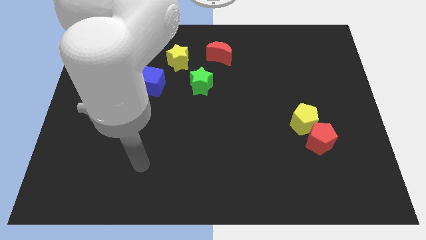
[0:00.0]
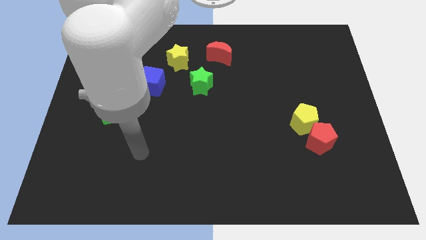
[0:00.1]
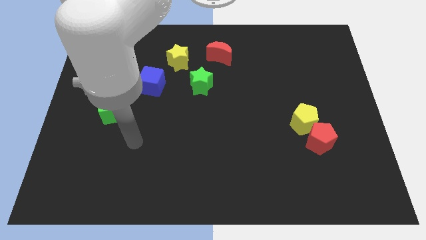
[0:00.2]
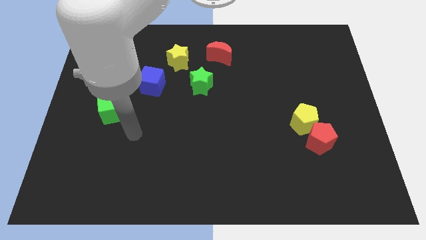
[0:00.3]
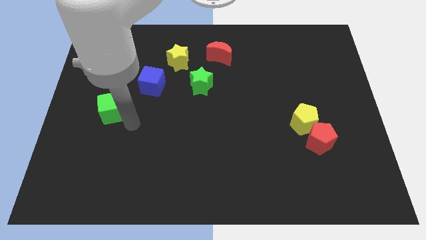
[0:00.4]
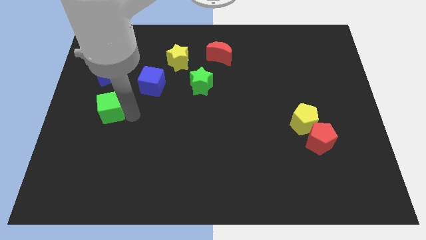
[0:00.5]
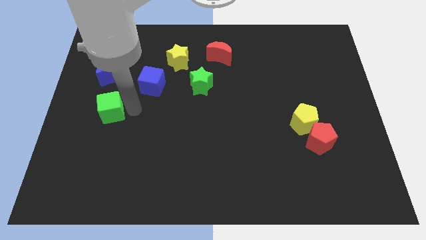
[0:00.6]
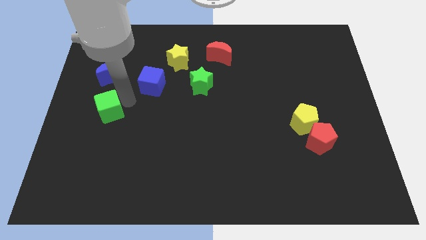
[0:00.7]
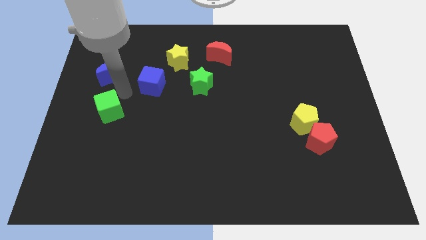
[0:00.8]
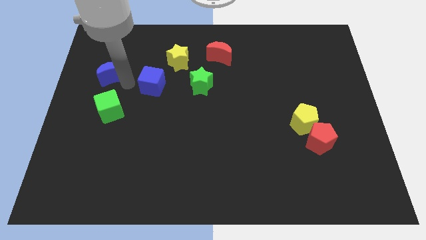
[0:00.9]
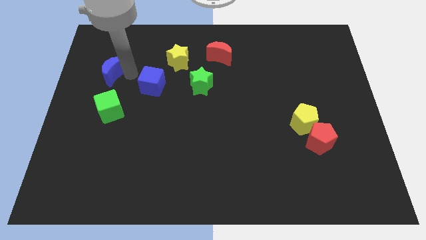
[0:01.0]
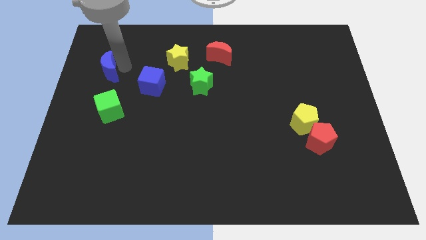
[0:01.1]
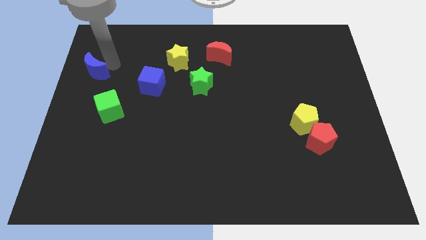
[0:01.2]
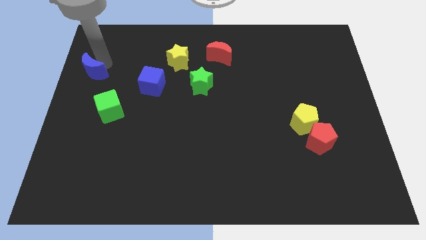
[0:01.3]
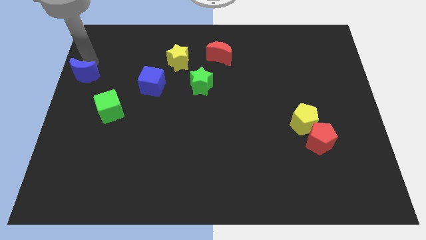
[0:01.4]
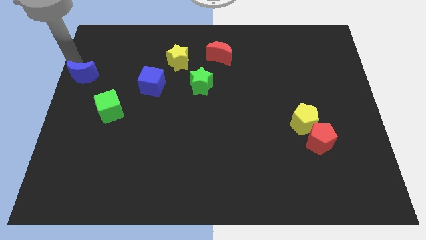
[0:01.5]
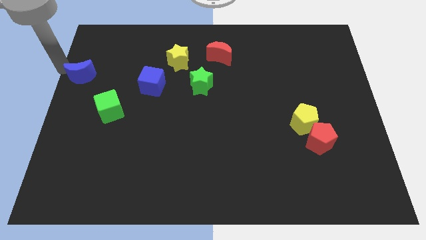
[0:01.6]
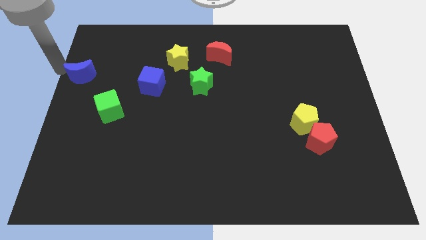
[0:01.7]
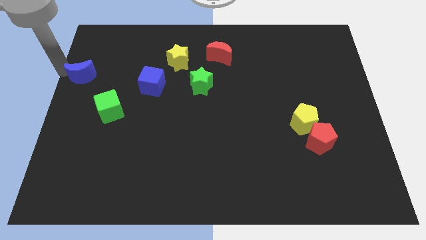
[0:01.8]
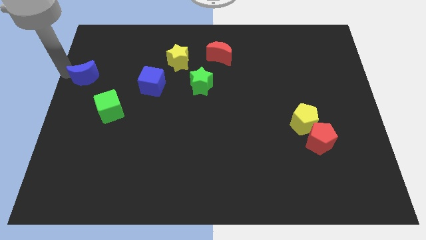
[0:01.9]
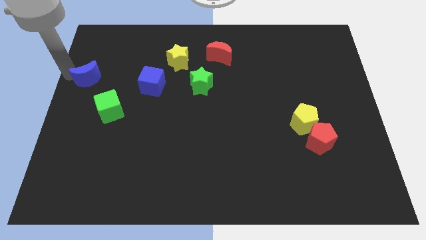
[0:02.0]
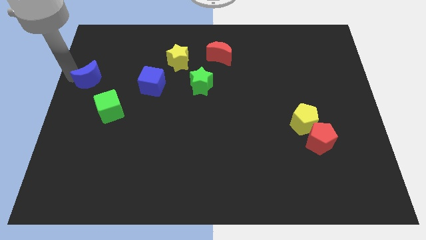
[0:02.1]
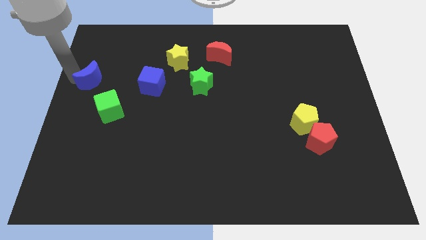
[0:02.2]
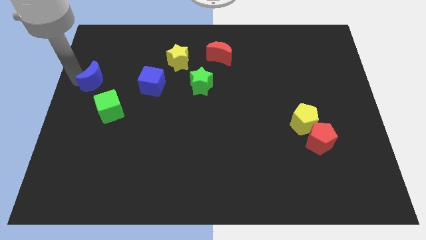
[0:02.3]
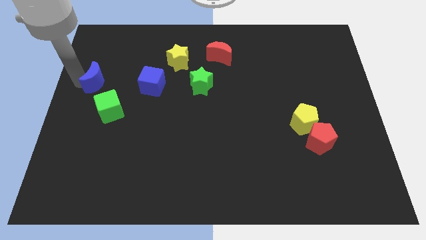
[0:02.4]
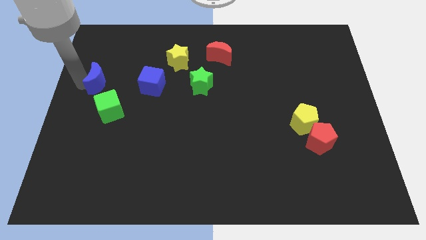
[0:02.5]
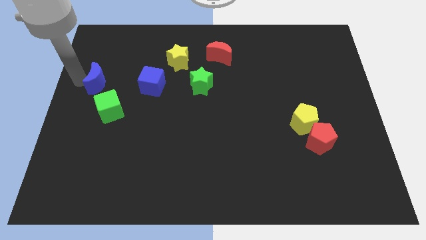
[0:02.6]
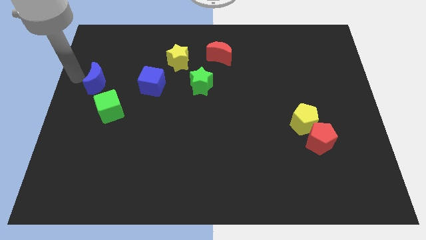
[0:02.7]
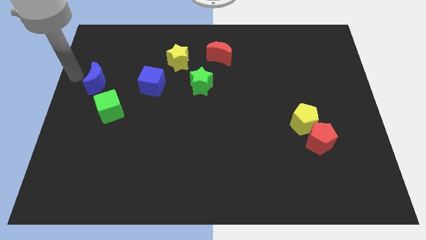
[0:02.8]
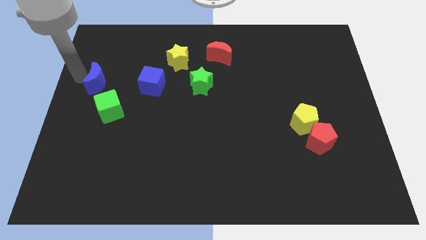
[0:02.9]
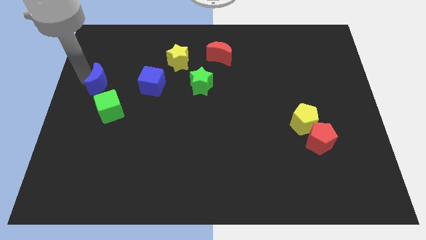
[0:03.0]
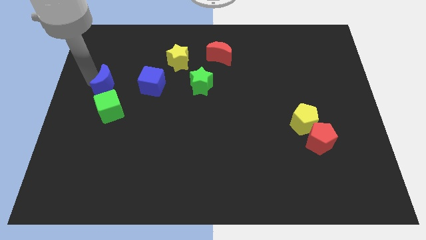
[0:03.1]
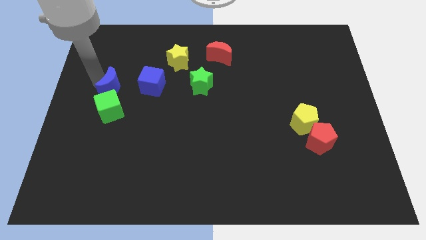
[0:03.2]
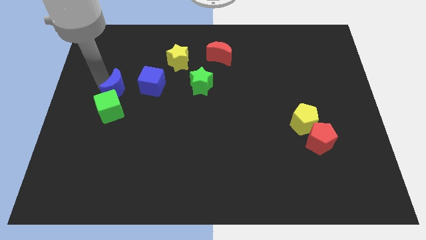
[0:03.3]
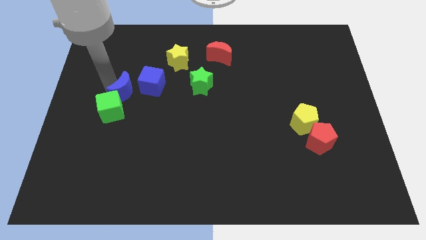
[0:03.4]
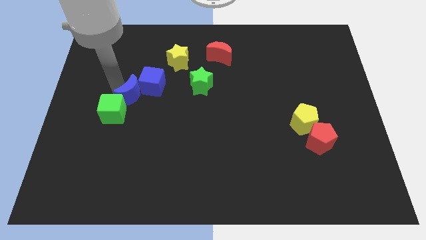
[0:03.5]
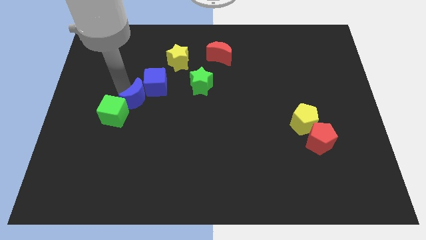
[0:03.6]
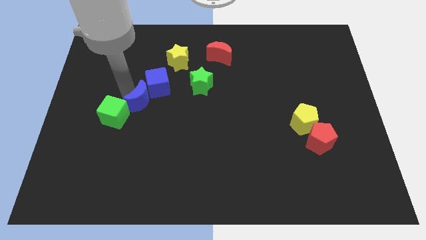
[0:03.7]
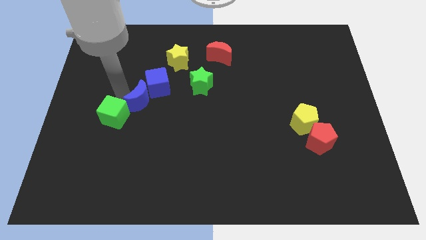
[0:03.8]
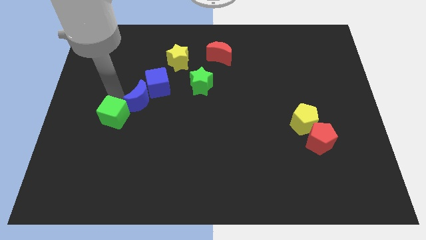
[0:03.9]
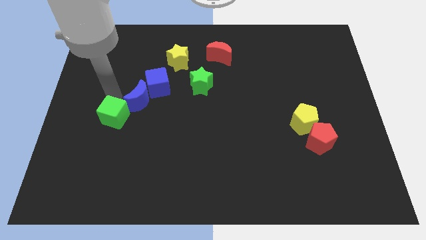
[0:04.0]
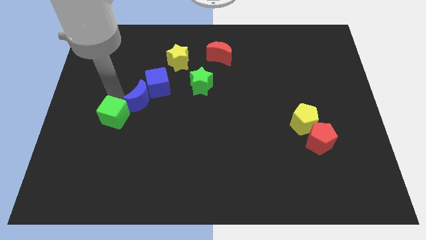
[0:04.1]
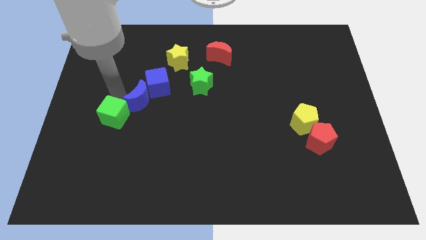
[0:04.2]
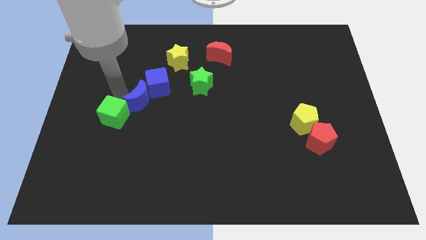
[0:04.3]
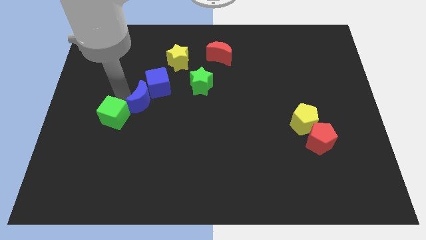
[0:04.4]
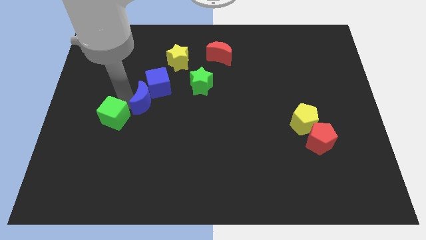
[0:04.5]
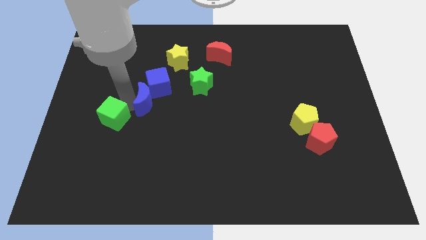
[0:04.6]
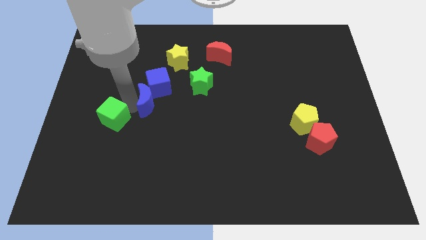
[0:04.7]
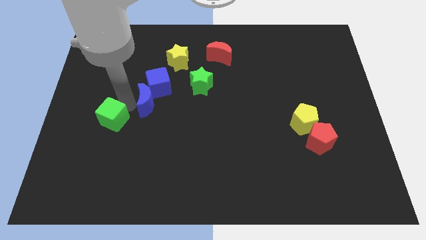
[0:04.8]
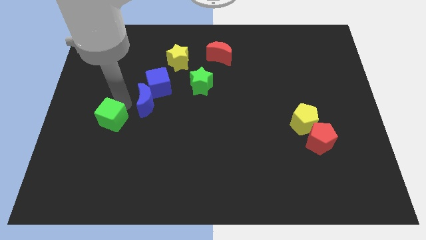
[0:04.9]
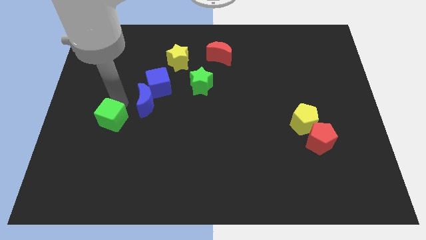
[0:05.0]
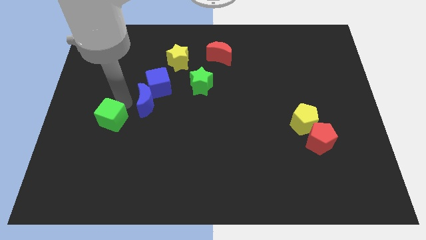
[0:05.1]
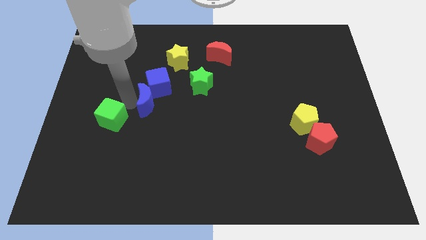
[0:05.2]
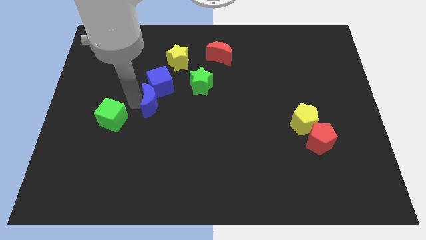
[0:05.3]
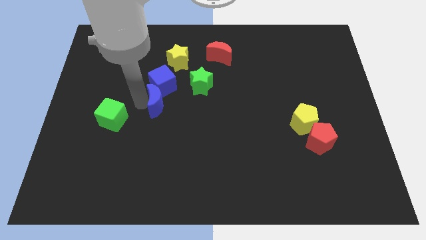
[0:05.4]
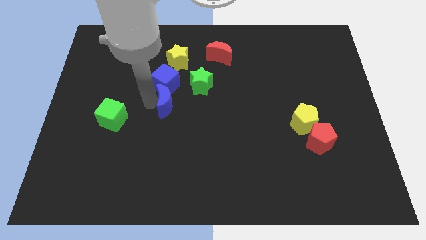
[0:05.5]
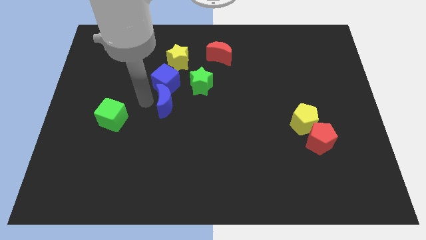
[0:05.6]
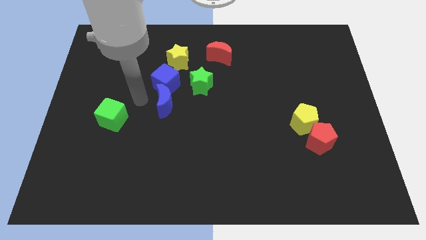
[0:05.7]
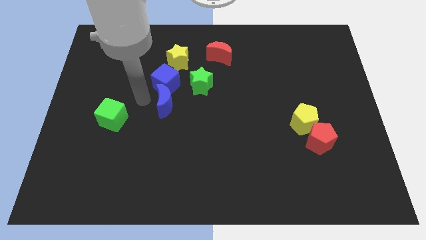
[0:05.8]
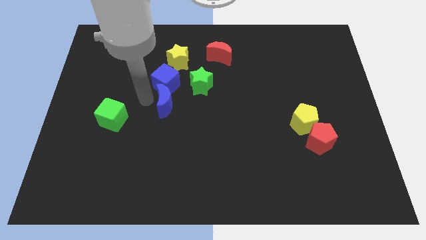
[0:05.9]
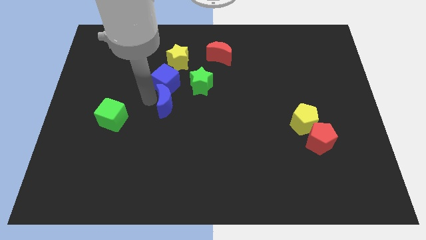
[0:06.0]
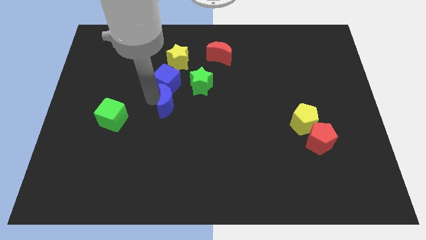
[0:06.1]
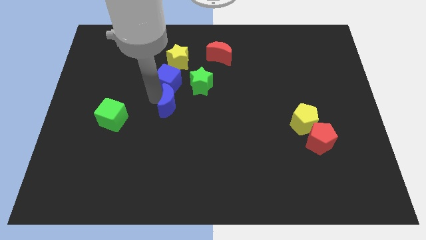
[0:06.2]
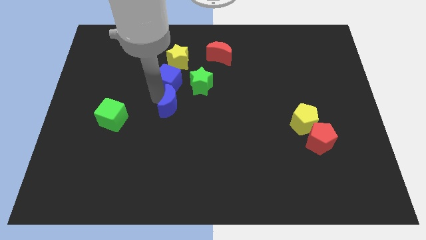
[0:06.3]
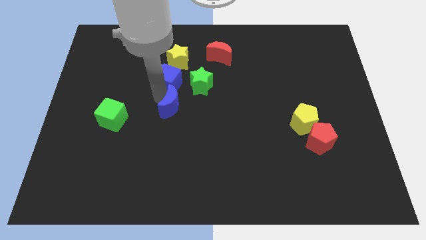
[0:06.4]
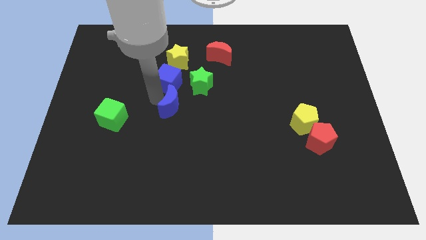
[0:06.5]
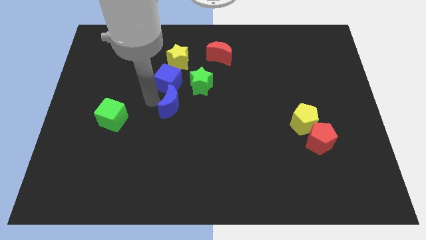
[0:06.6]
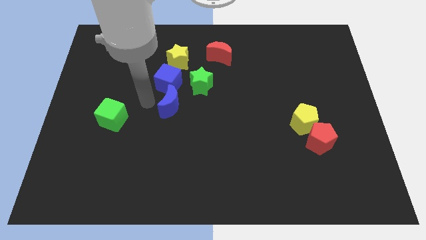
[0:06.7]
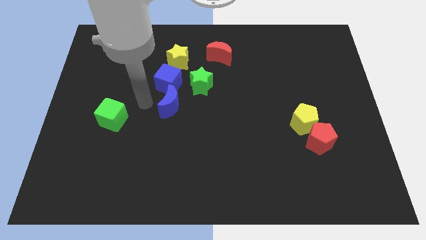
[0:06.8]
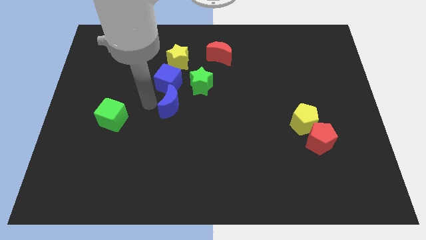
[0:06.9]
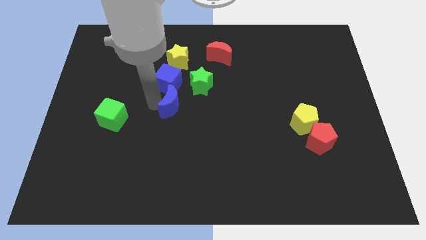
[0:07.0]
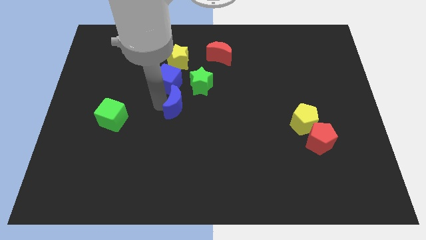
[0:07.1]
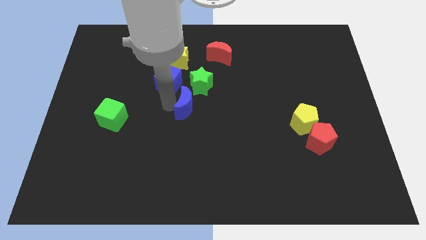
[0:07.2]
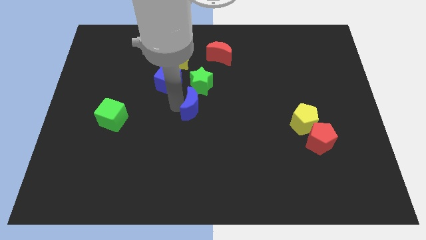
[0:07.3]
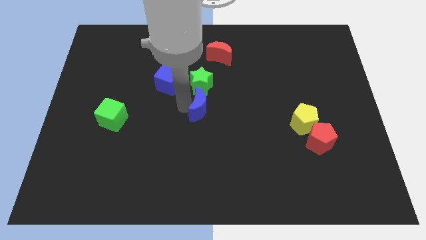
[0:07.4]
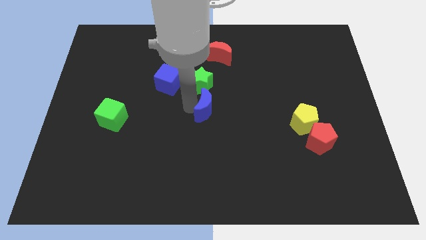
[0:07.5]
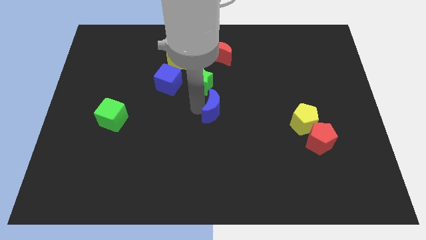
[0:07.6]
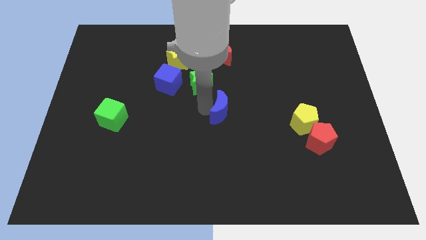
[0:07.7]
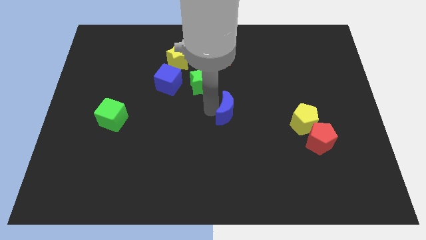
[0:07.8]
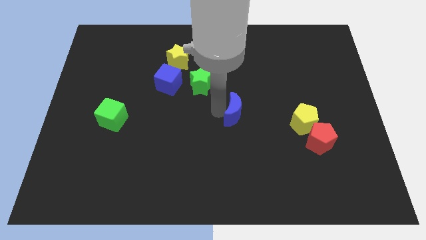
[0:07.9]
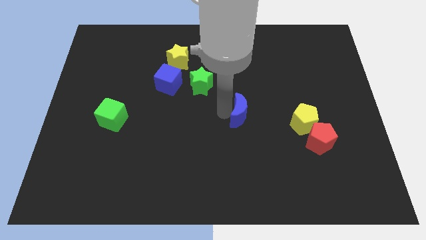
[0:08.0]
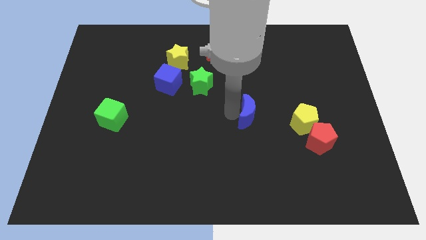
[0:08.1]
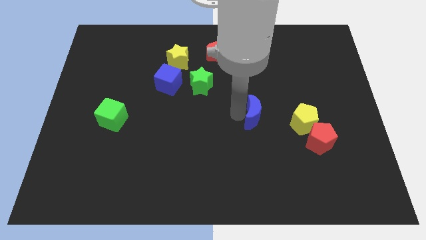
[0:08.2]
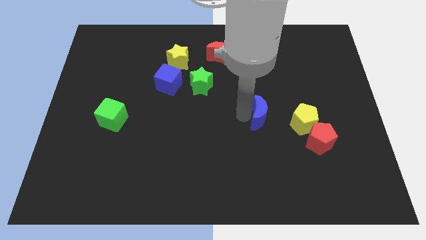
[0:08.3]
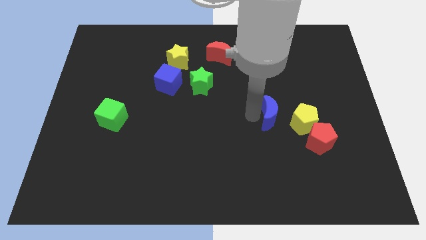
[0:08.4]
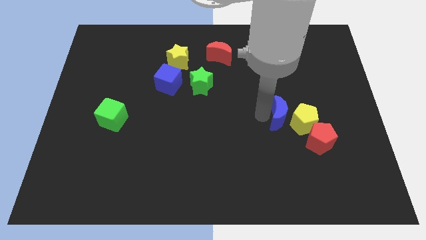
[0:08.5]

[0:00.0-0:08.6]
put the blue moon next to the yellow pentagon
